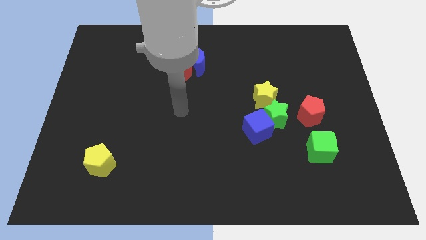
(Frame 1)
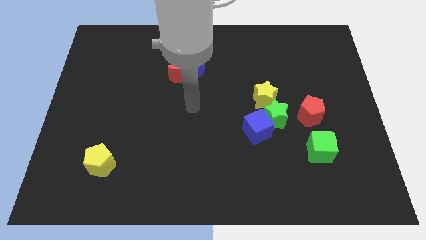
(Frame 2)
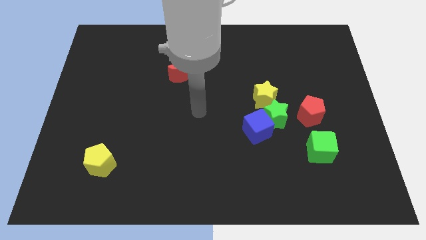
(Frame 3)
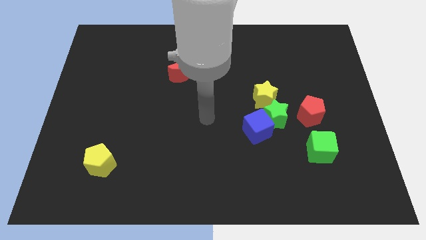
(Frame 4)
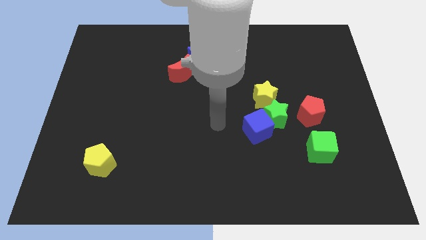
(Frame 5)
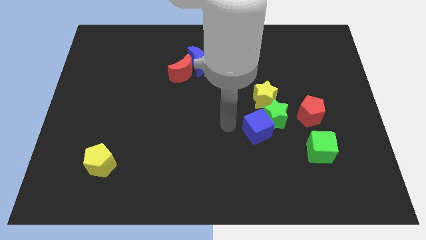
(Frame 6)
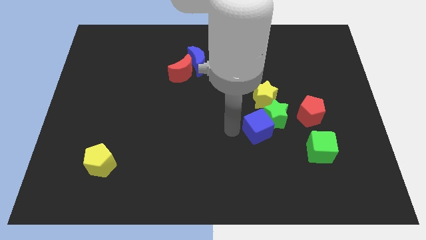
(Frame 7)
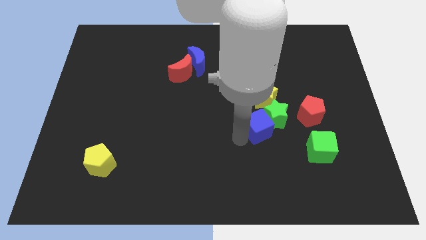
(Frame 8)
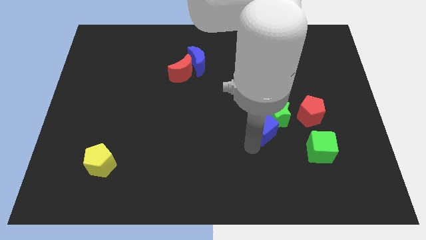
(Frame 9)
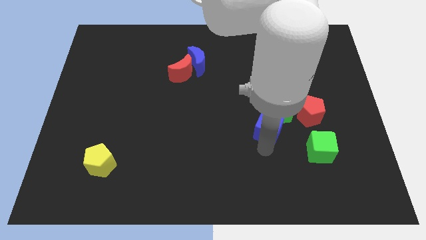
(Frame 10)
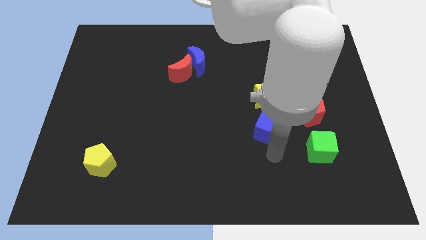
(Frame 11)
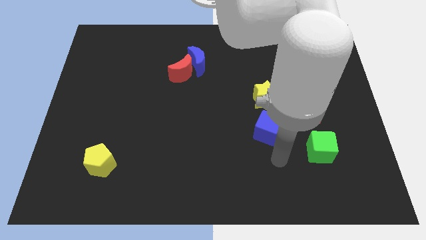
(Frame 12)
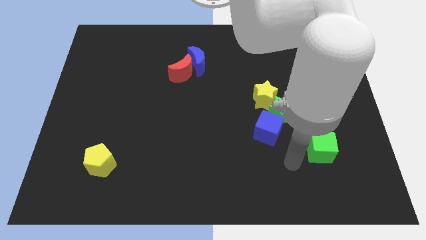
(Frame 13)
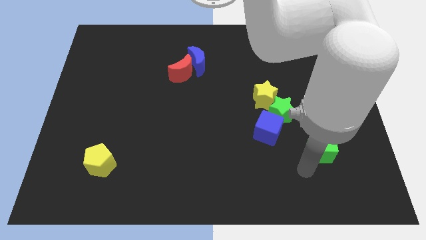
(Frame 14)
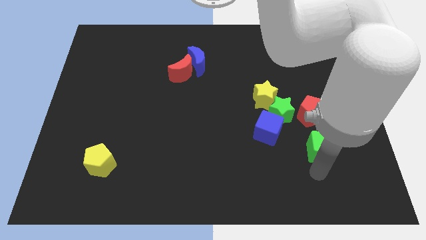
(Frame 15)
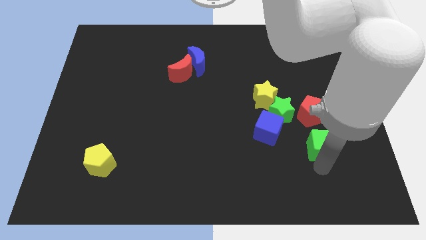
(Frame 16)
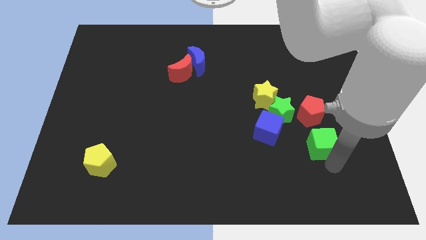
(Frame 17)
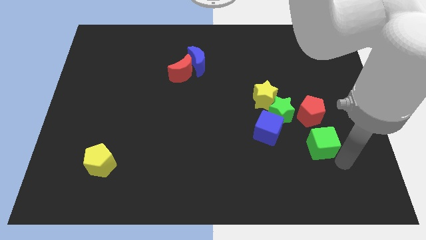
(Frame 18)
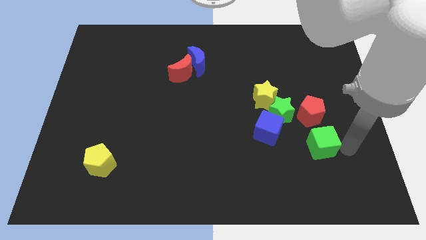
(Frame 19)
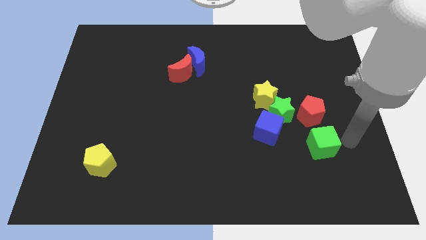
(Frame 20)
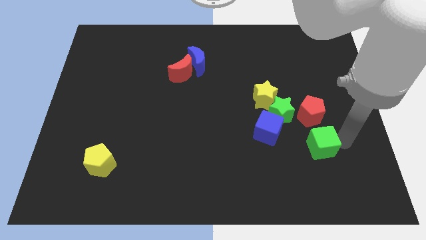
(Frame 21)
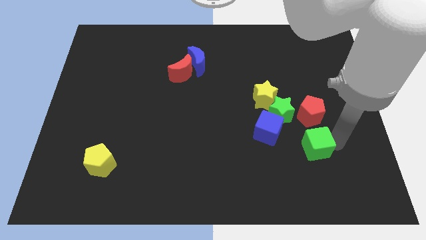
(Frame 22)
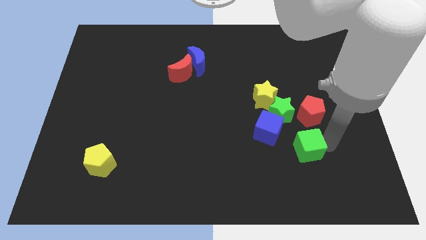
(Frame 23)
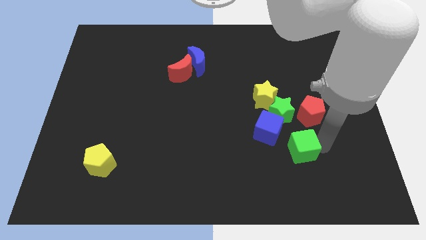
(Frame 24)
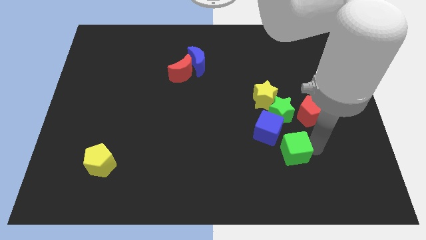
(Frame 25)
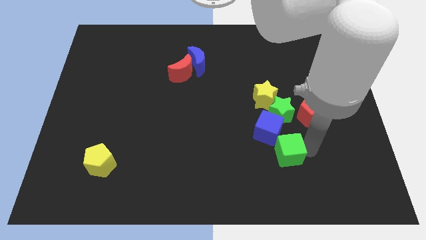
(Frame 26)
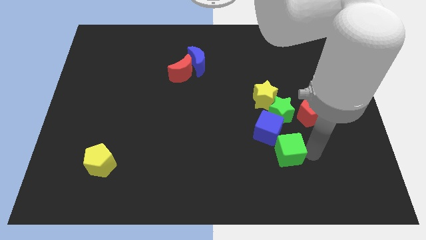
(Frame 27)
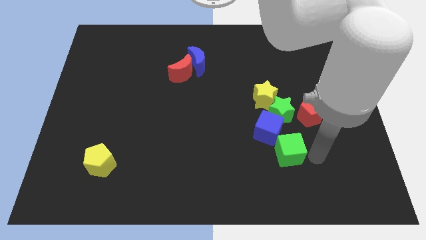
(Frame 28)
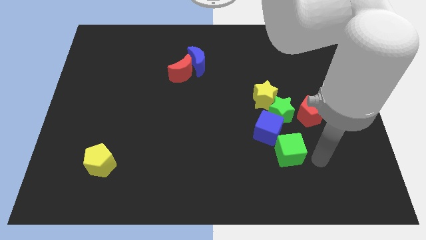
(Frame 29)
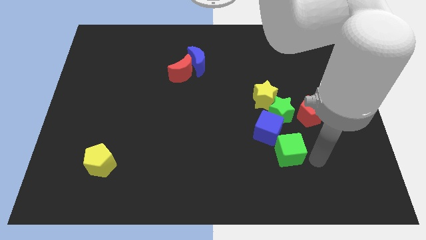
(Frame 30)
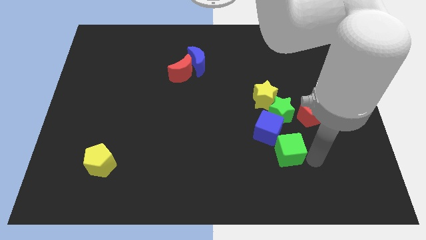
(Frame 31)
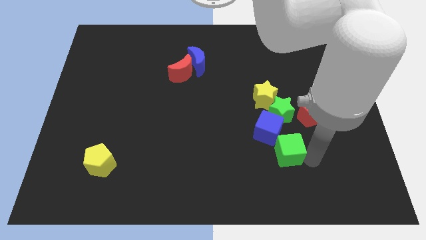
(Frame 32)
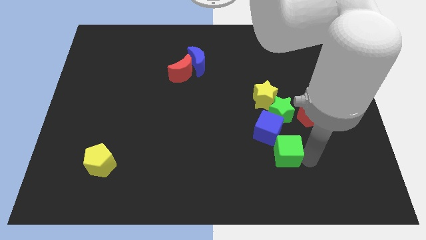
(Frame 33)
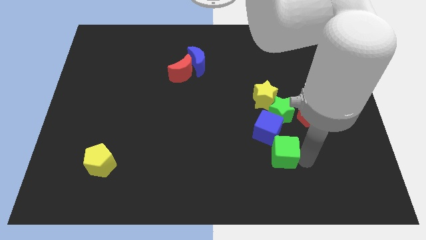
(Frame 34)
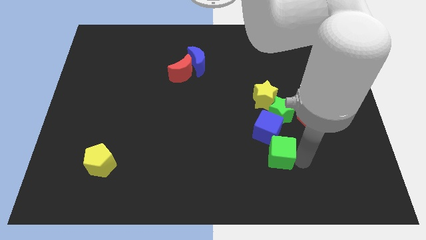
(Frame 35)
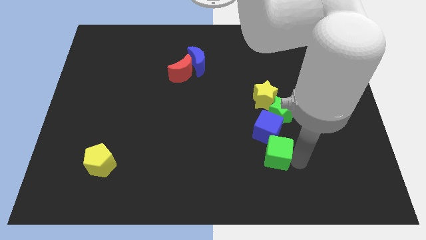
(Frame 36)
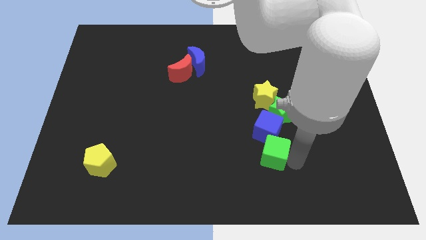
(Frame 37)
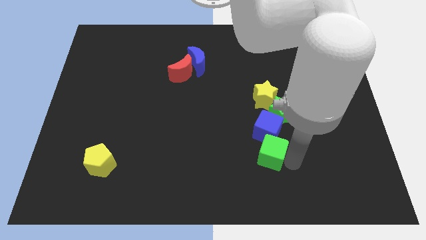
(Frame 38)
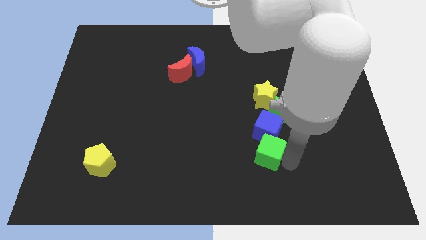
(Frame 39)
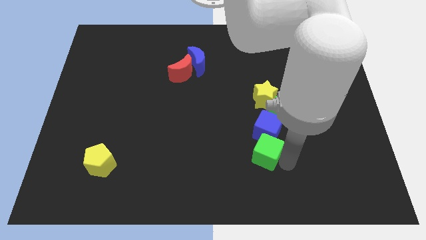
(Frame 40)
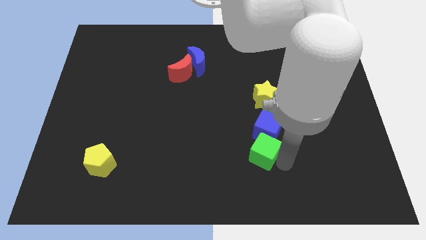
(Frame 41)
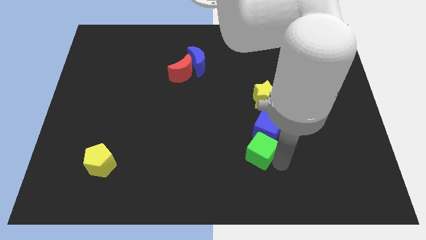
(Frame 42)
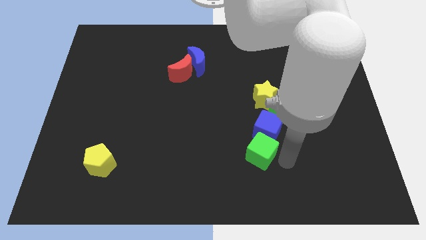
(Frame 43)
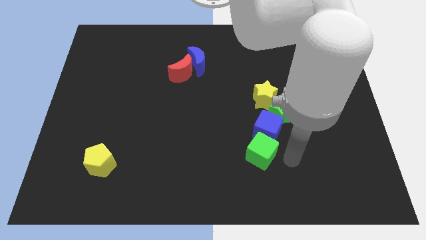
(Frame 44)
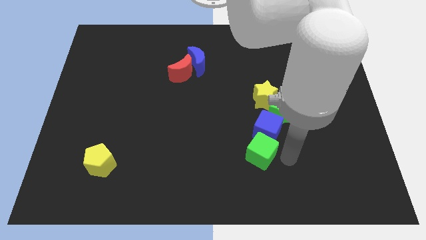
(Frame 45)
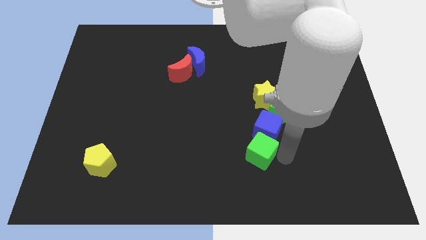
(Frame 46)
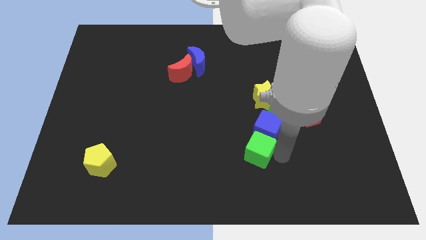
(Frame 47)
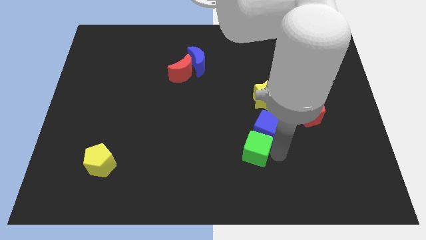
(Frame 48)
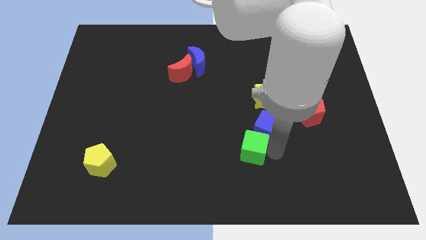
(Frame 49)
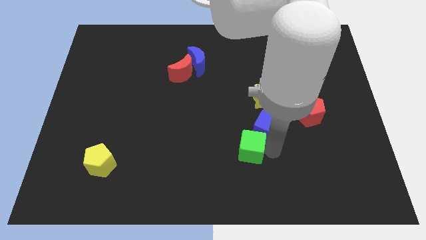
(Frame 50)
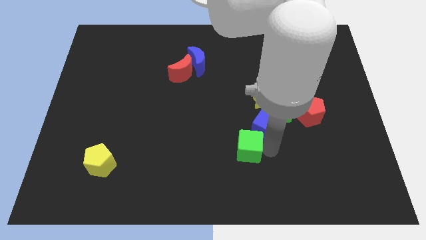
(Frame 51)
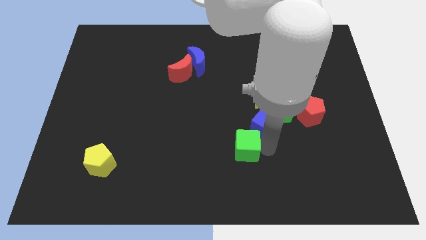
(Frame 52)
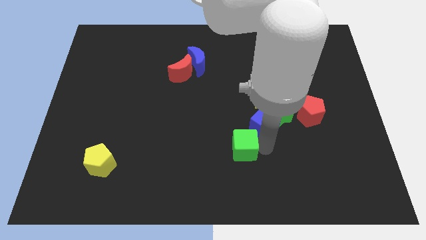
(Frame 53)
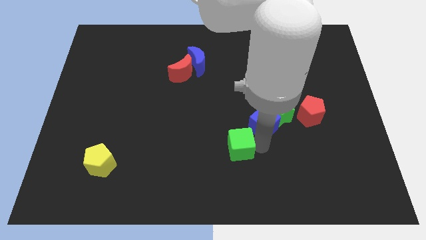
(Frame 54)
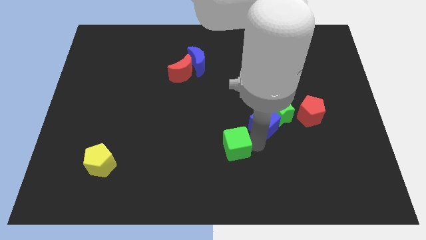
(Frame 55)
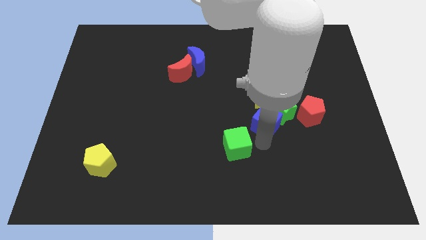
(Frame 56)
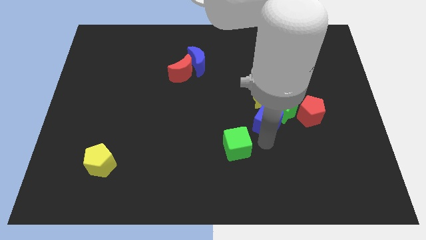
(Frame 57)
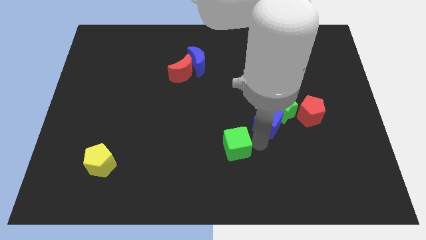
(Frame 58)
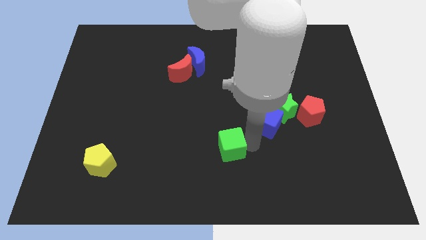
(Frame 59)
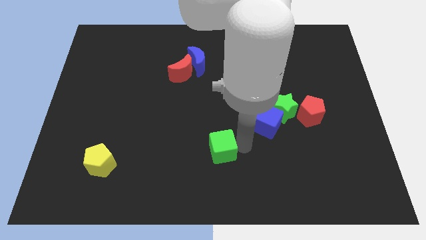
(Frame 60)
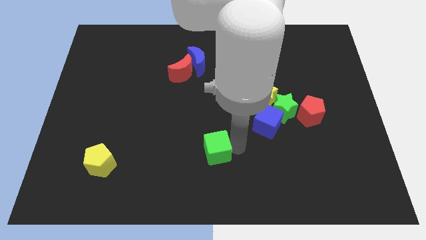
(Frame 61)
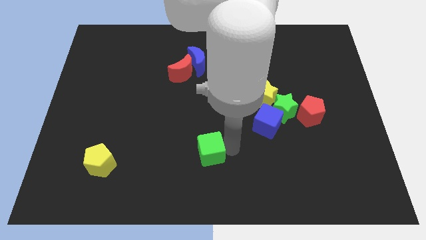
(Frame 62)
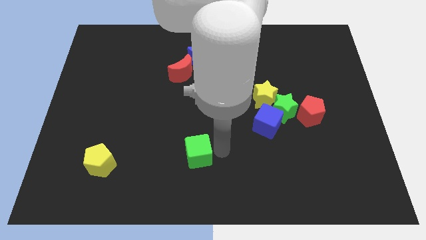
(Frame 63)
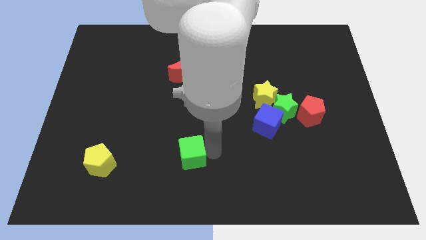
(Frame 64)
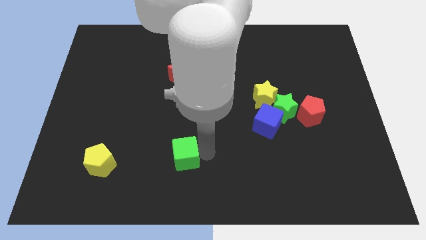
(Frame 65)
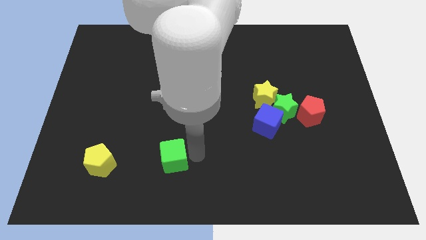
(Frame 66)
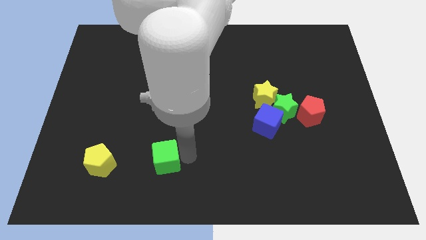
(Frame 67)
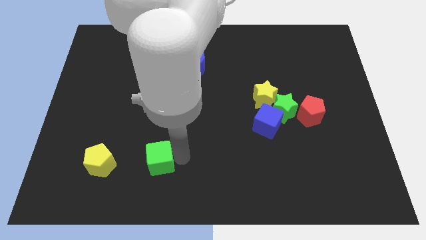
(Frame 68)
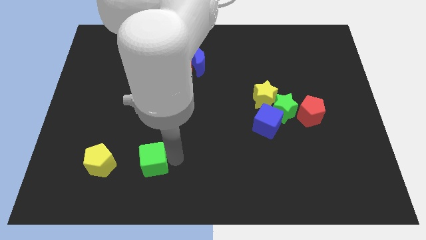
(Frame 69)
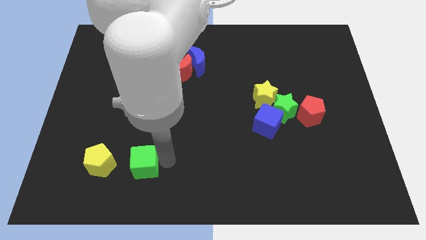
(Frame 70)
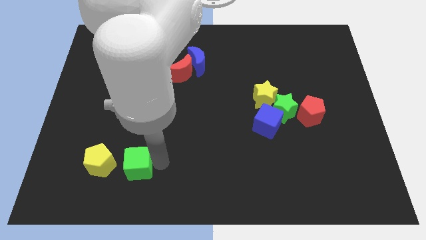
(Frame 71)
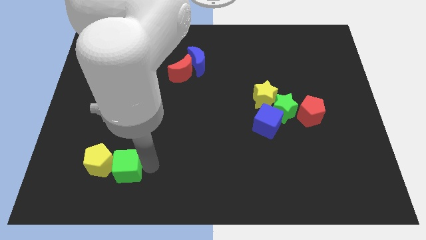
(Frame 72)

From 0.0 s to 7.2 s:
move the green cube next to the yellow pentagon
